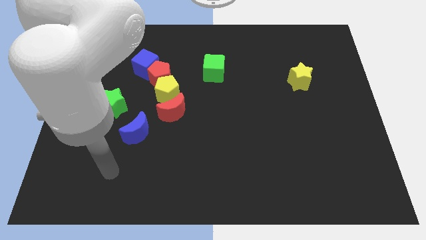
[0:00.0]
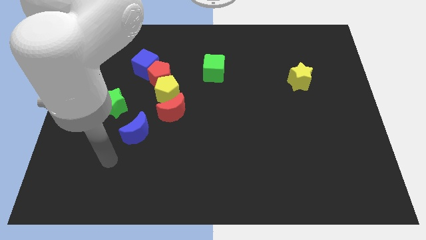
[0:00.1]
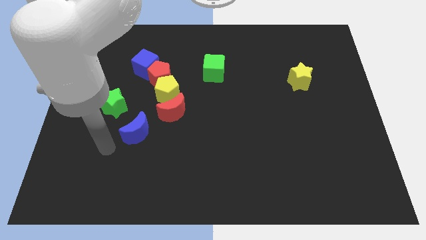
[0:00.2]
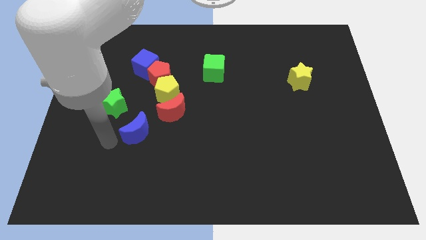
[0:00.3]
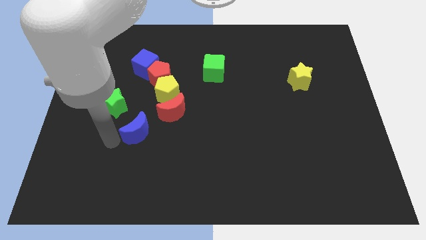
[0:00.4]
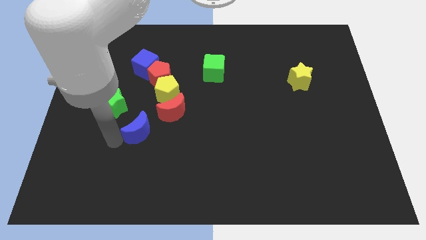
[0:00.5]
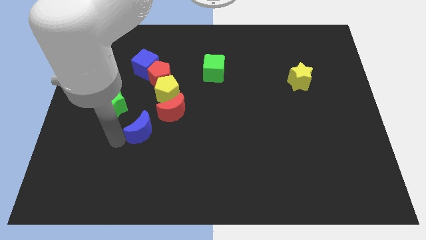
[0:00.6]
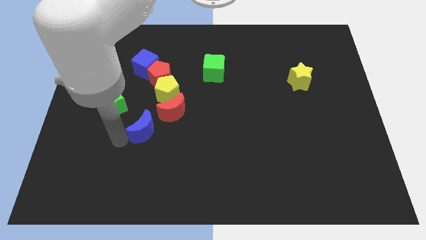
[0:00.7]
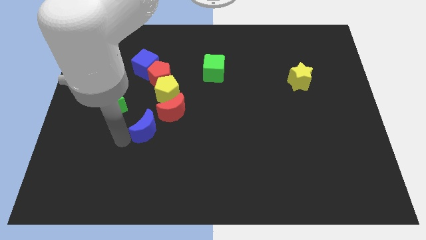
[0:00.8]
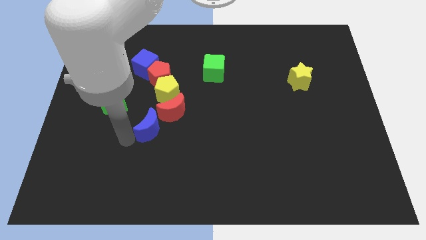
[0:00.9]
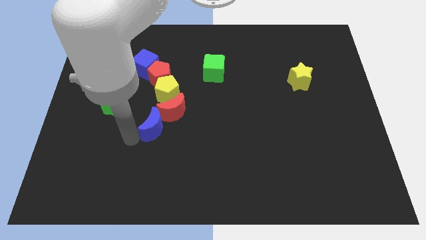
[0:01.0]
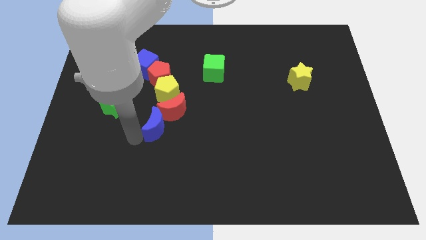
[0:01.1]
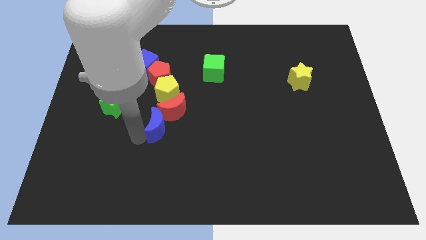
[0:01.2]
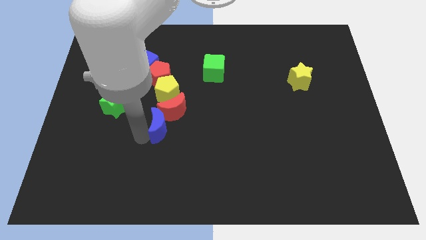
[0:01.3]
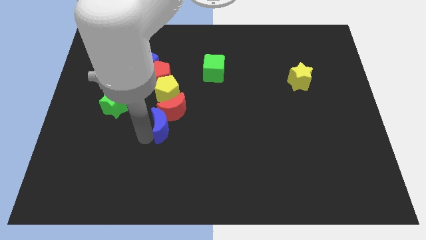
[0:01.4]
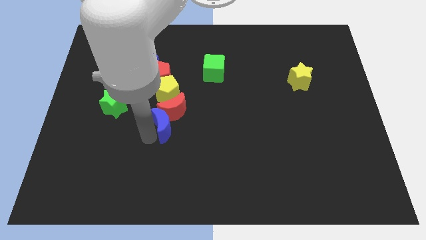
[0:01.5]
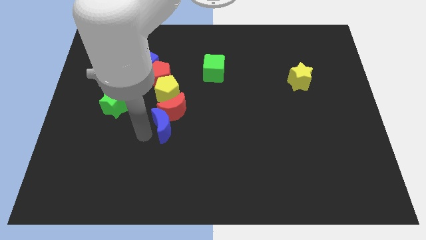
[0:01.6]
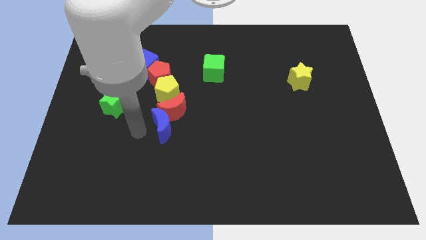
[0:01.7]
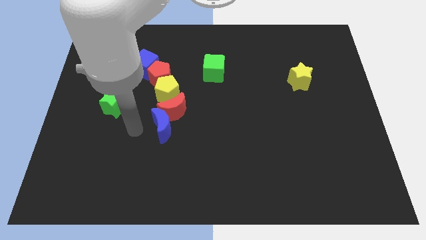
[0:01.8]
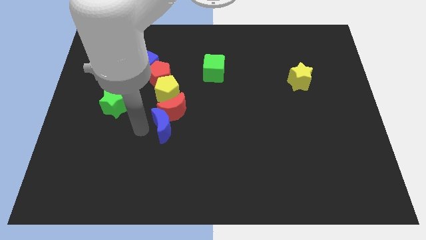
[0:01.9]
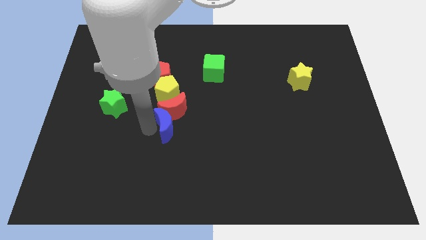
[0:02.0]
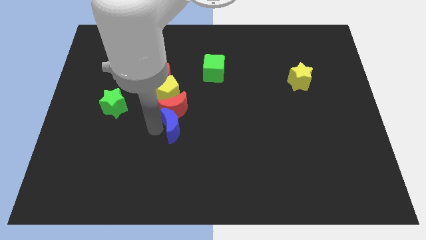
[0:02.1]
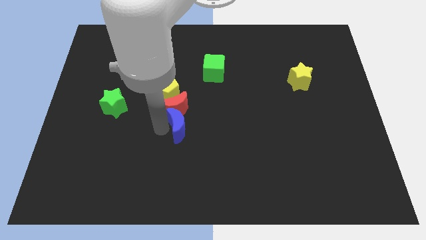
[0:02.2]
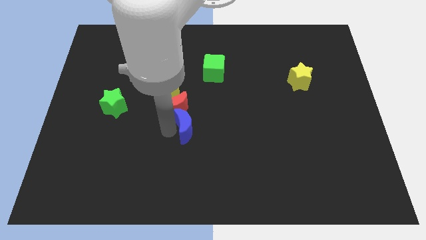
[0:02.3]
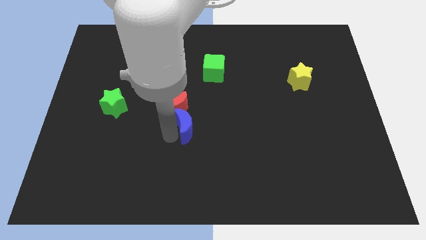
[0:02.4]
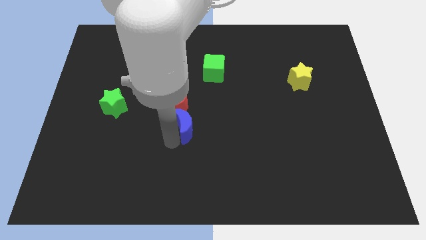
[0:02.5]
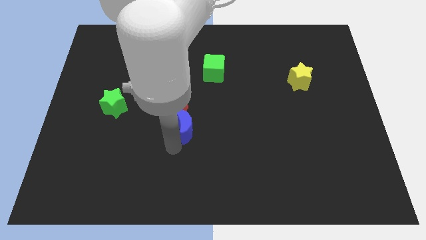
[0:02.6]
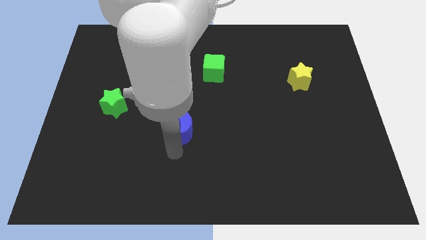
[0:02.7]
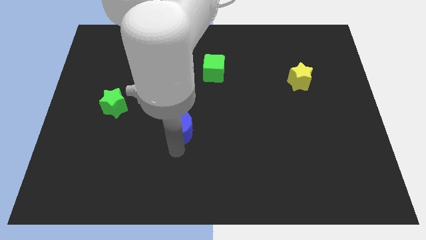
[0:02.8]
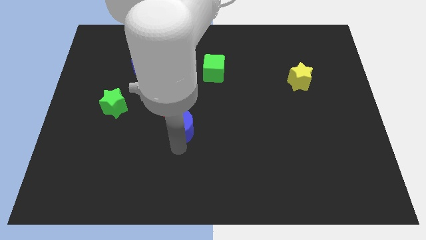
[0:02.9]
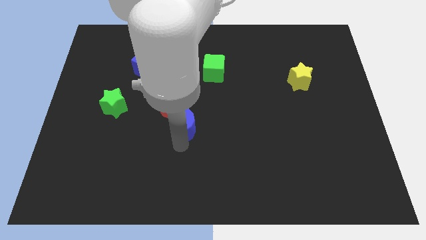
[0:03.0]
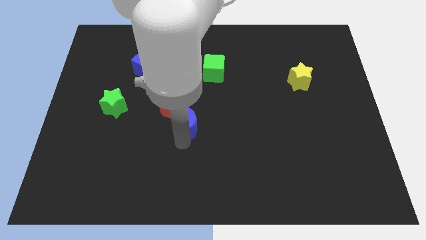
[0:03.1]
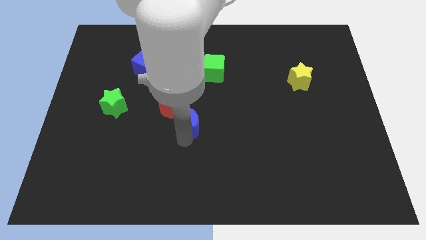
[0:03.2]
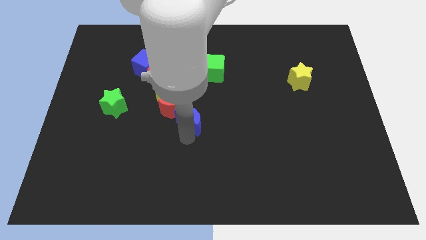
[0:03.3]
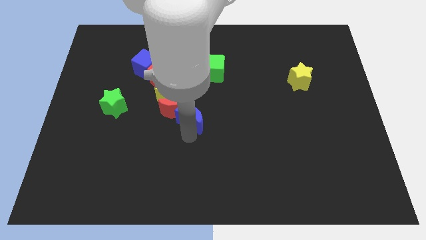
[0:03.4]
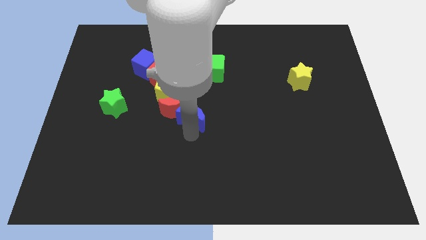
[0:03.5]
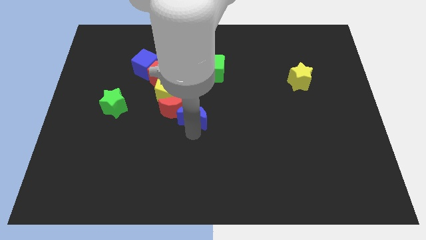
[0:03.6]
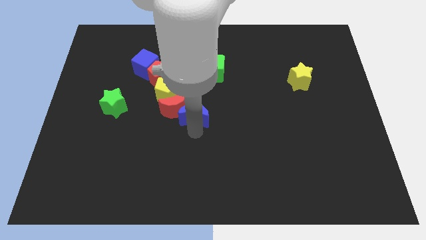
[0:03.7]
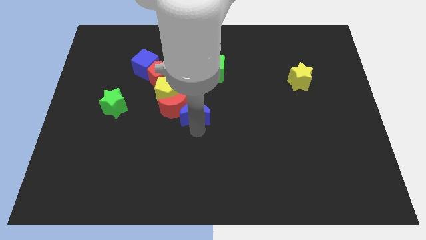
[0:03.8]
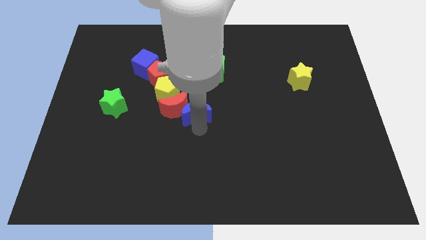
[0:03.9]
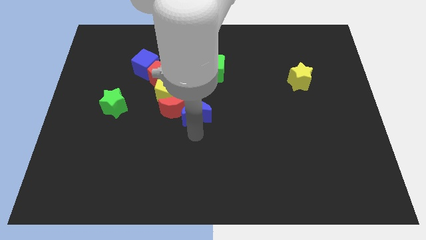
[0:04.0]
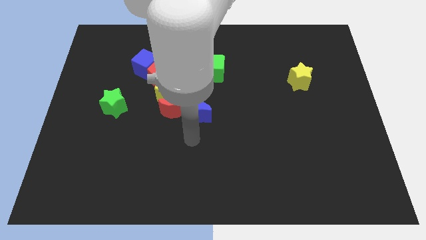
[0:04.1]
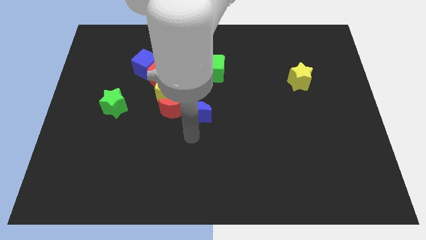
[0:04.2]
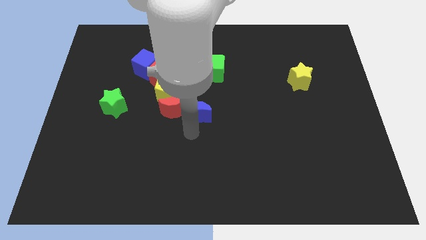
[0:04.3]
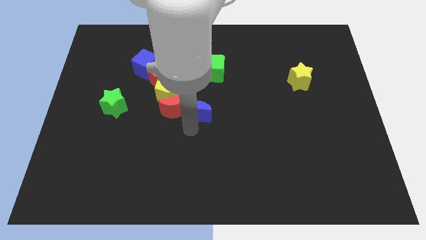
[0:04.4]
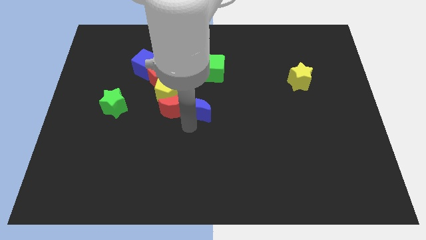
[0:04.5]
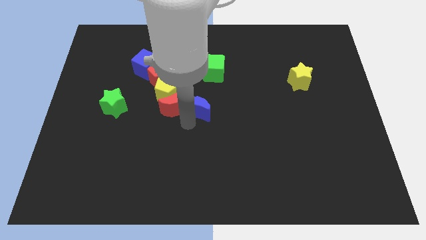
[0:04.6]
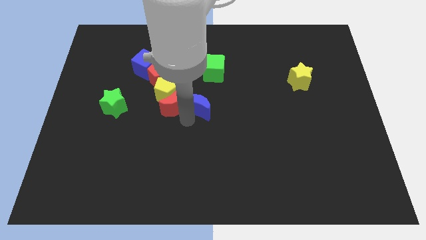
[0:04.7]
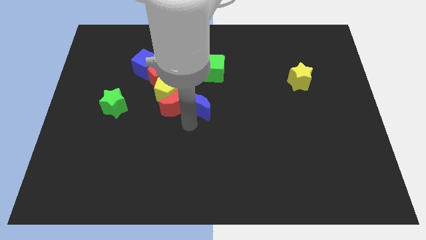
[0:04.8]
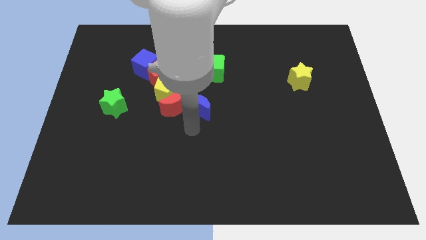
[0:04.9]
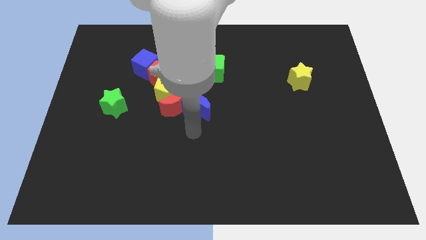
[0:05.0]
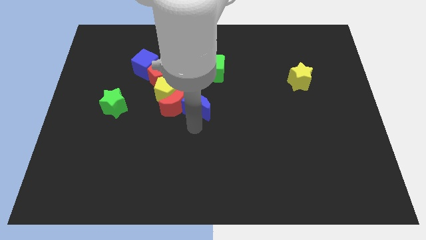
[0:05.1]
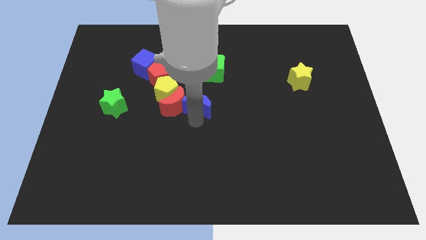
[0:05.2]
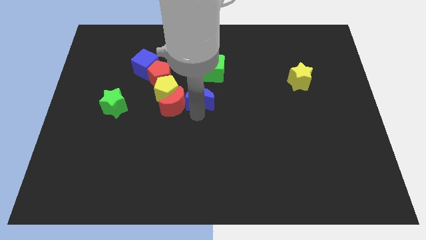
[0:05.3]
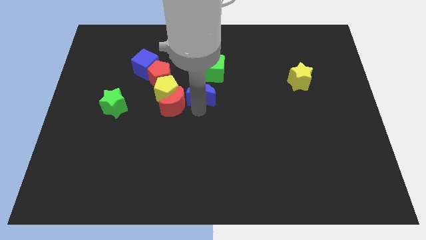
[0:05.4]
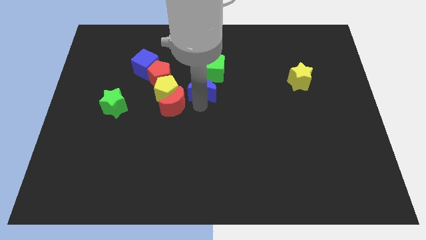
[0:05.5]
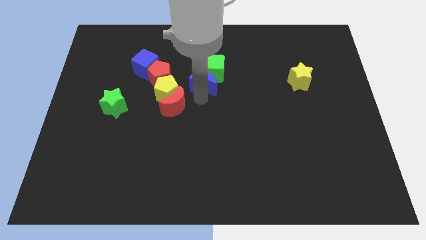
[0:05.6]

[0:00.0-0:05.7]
push the blue moon close to the green cube

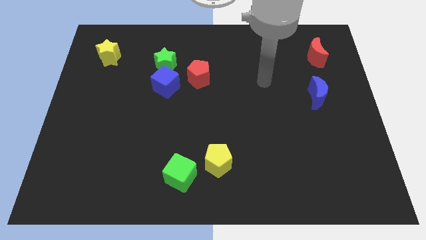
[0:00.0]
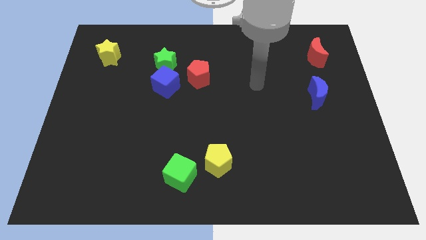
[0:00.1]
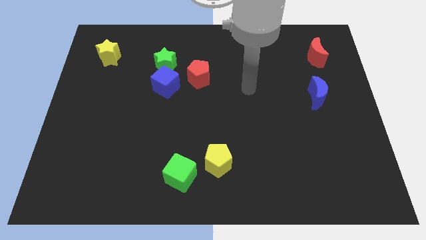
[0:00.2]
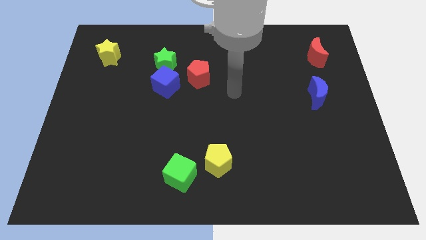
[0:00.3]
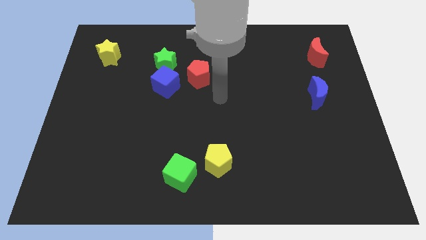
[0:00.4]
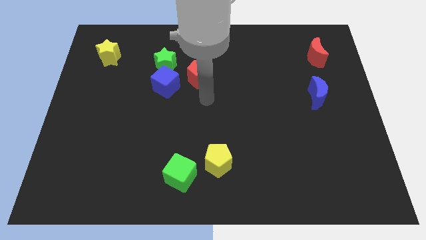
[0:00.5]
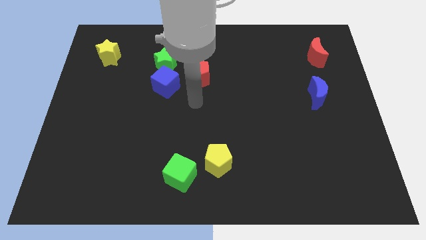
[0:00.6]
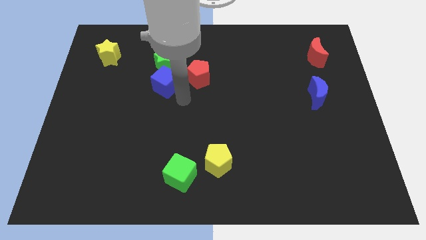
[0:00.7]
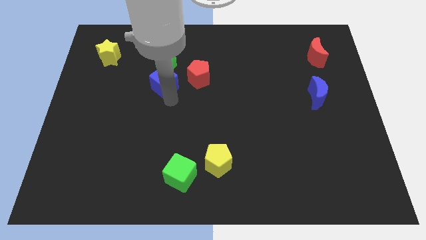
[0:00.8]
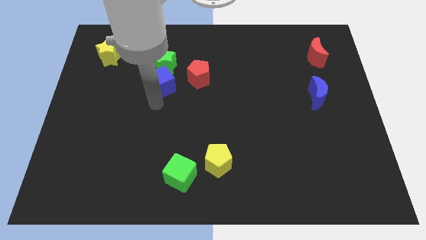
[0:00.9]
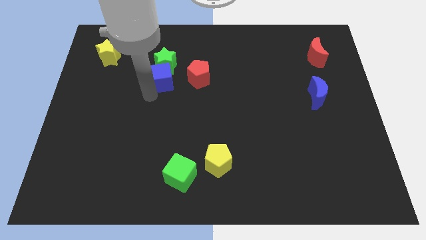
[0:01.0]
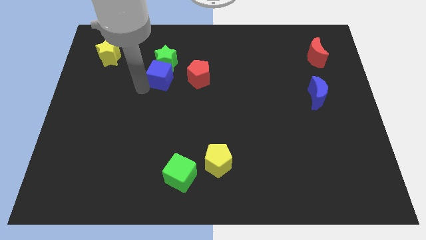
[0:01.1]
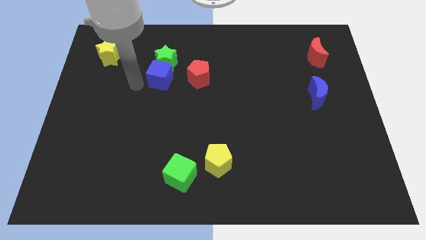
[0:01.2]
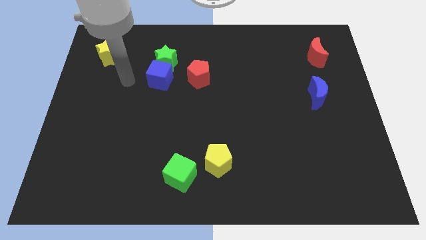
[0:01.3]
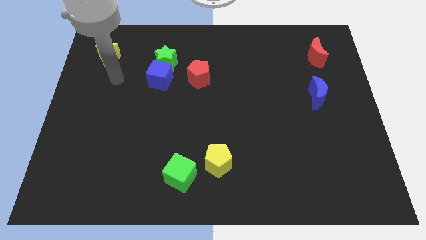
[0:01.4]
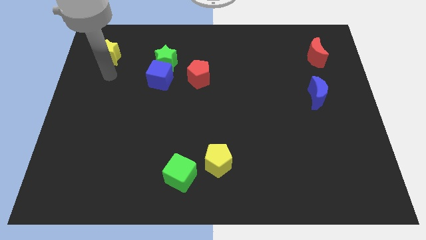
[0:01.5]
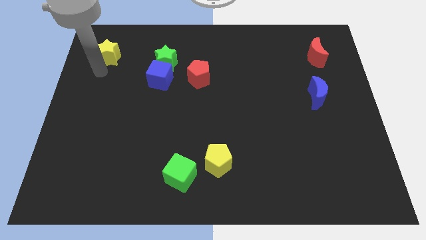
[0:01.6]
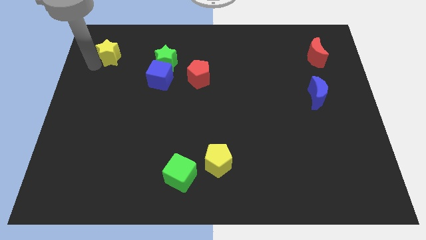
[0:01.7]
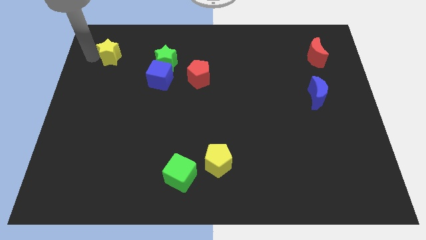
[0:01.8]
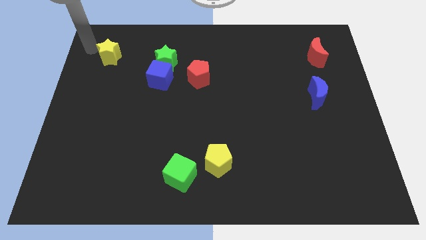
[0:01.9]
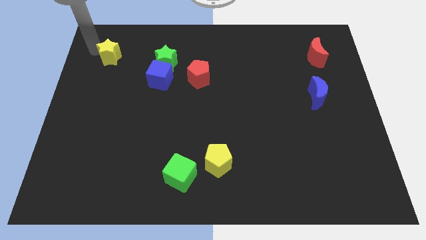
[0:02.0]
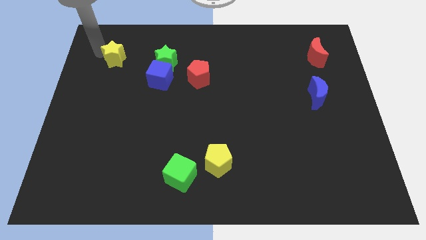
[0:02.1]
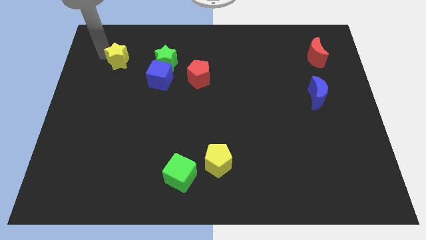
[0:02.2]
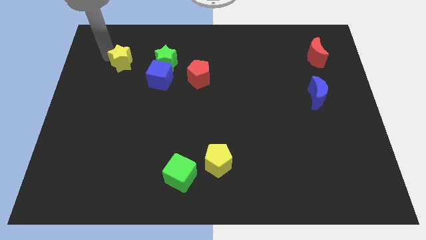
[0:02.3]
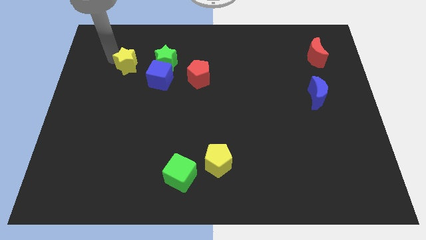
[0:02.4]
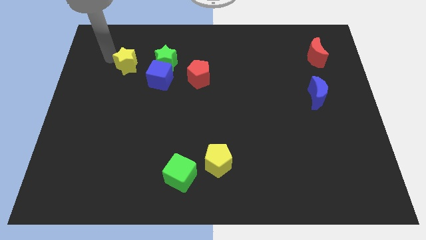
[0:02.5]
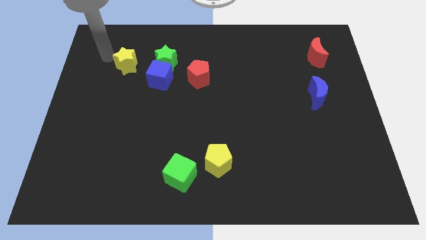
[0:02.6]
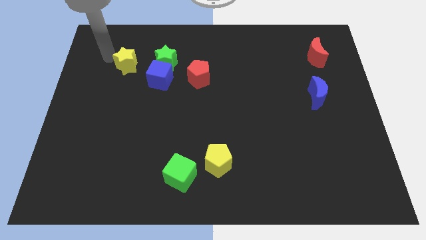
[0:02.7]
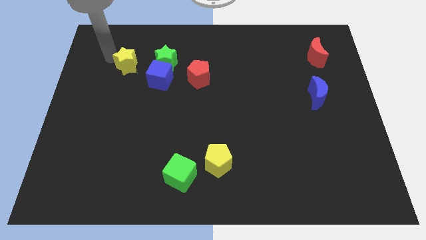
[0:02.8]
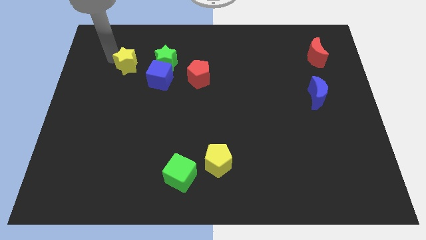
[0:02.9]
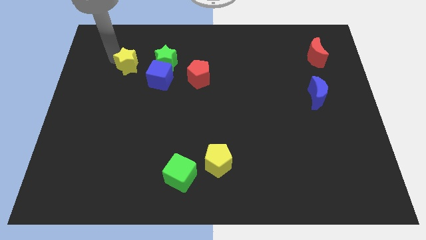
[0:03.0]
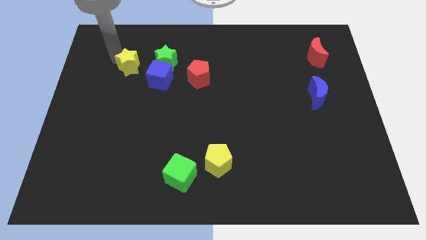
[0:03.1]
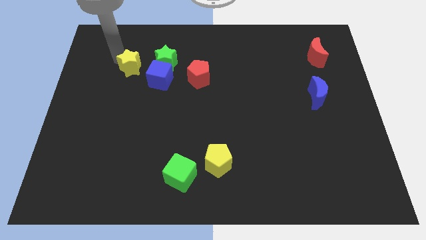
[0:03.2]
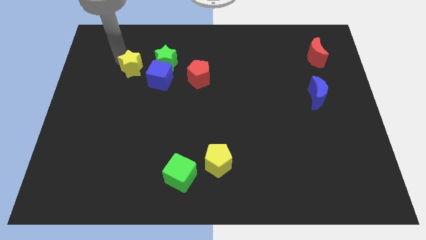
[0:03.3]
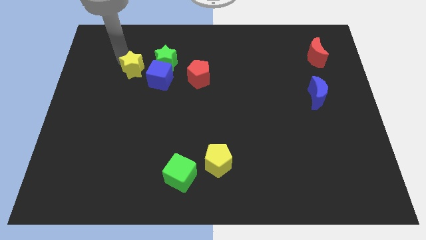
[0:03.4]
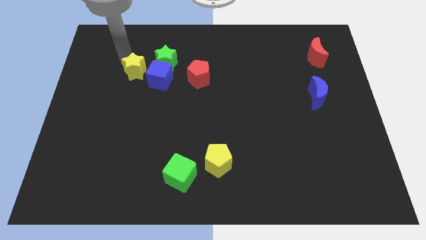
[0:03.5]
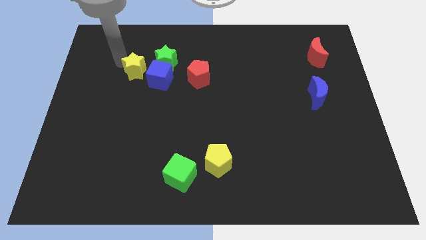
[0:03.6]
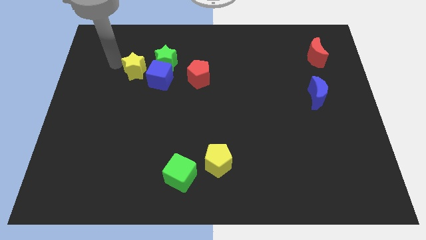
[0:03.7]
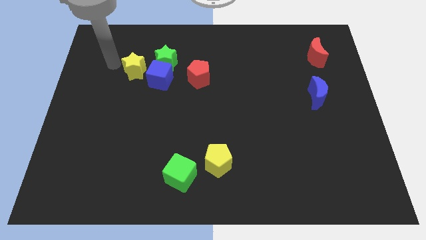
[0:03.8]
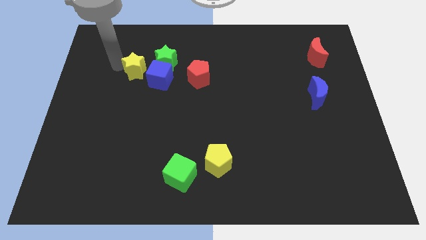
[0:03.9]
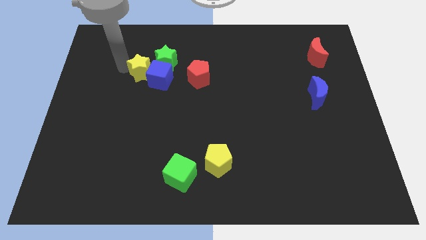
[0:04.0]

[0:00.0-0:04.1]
move the yellow star towards the blue cube
